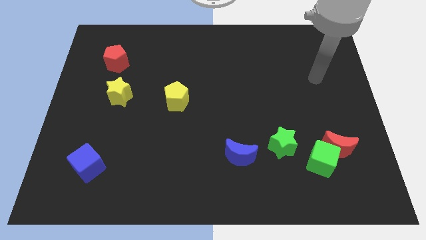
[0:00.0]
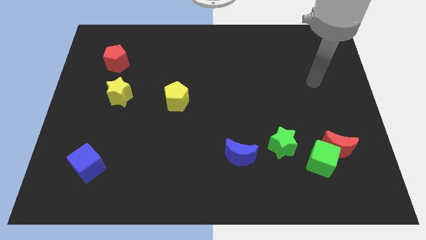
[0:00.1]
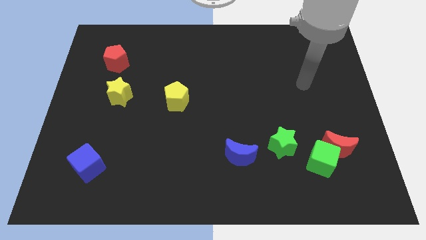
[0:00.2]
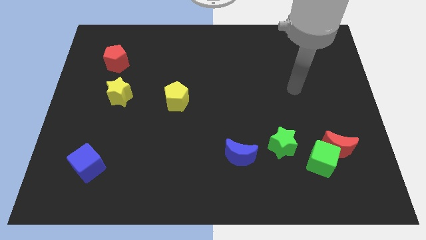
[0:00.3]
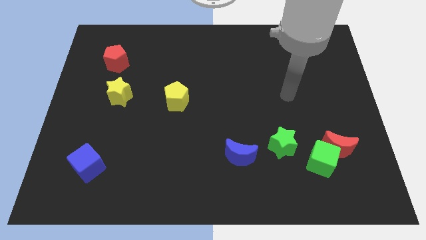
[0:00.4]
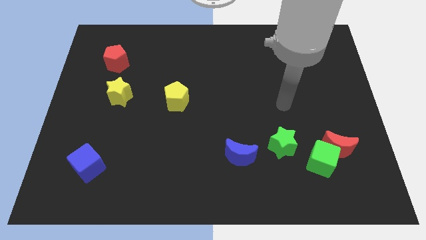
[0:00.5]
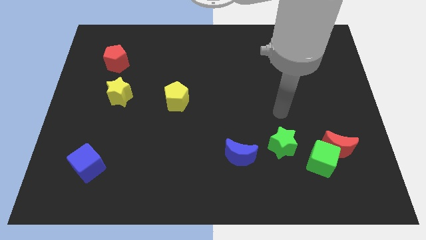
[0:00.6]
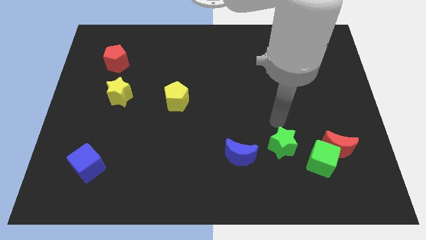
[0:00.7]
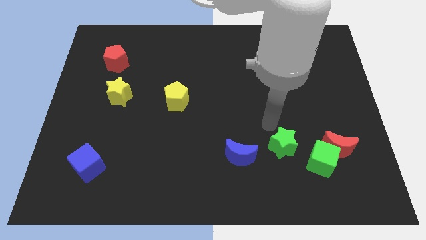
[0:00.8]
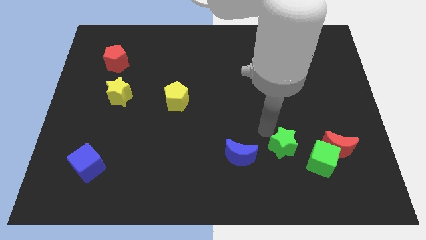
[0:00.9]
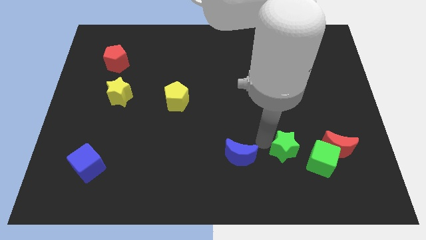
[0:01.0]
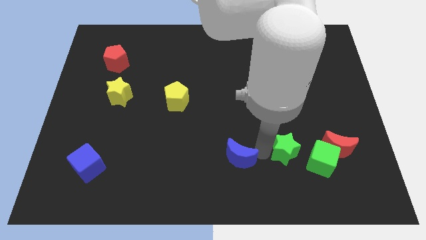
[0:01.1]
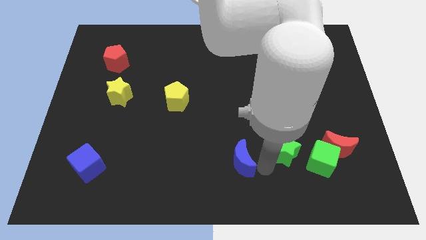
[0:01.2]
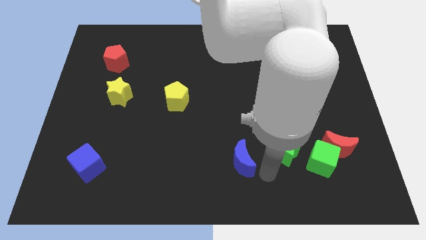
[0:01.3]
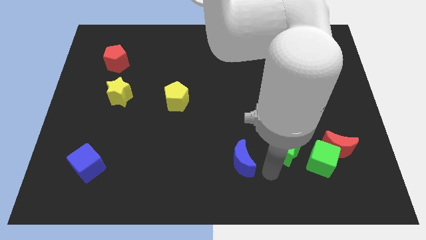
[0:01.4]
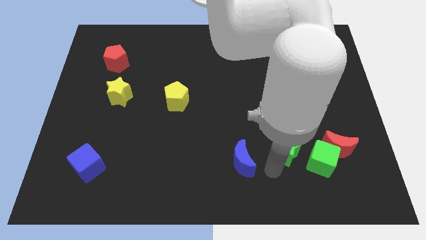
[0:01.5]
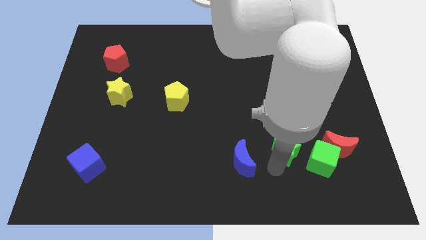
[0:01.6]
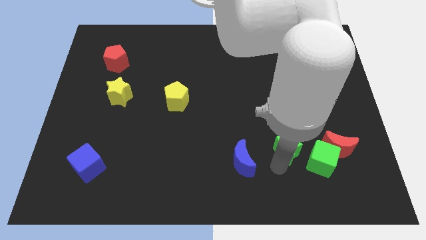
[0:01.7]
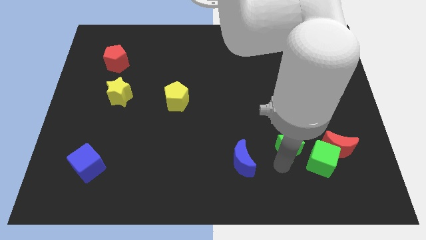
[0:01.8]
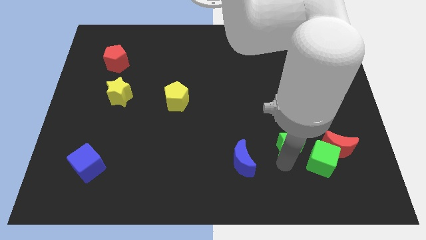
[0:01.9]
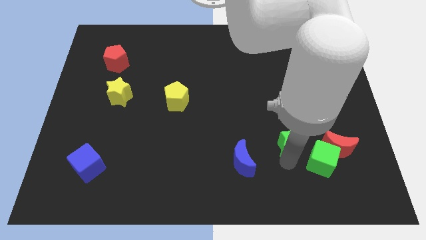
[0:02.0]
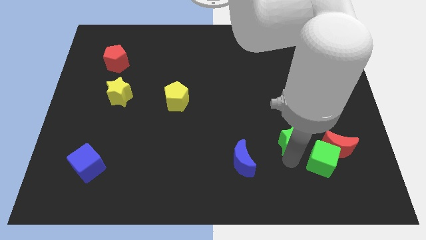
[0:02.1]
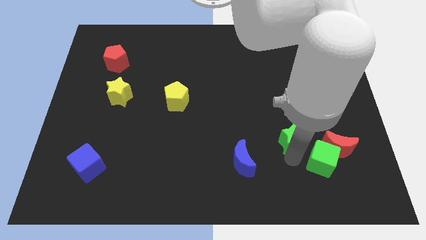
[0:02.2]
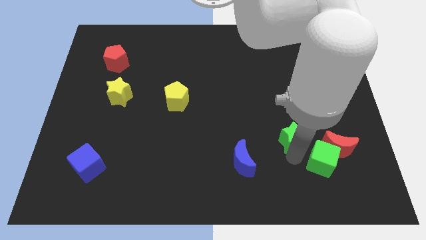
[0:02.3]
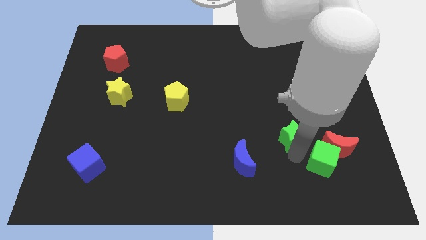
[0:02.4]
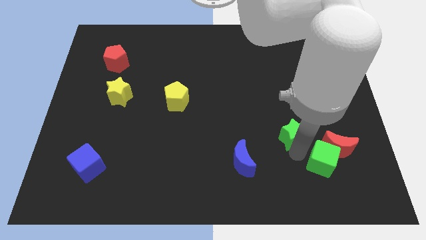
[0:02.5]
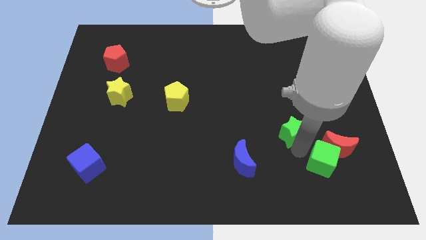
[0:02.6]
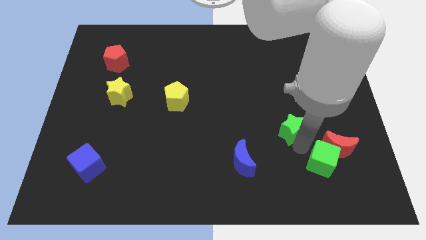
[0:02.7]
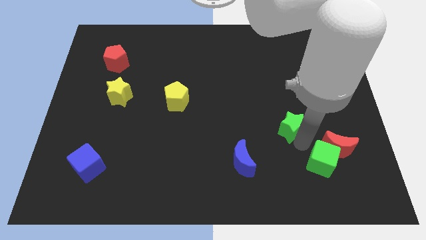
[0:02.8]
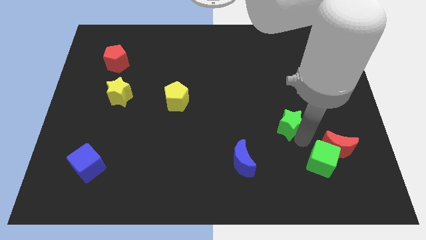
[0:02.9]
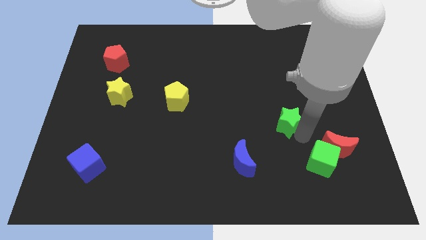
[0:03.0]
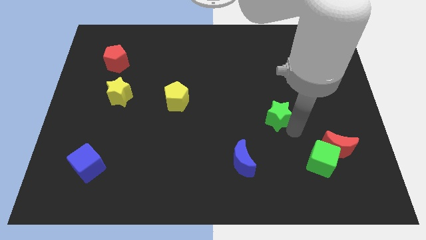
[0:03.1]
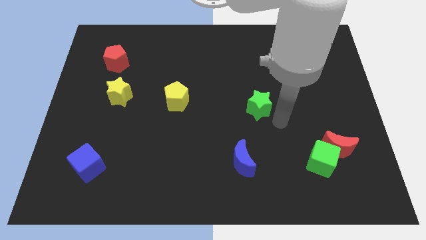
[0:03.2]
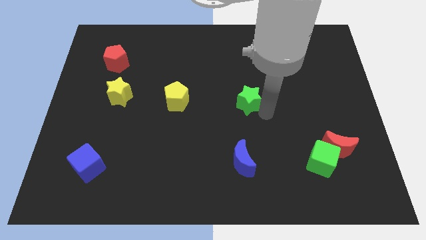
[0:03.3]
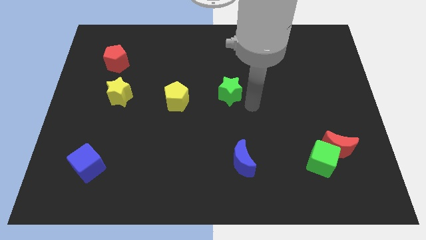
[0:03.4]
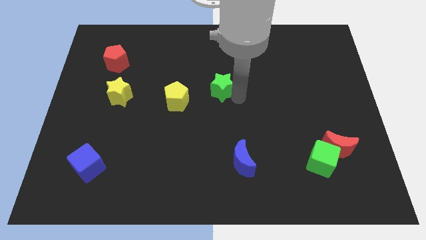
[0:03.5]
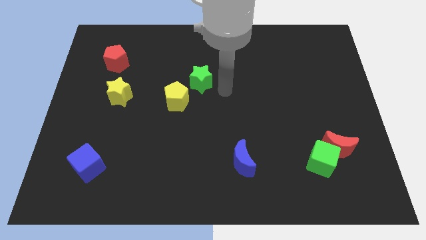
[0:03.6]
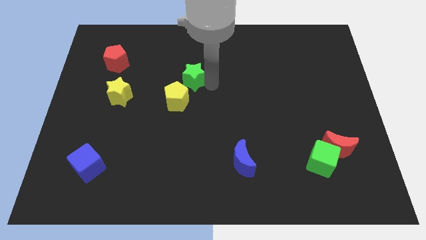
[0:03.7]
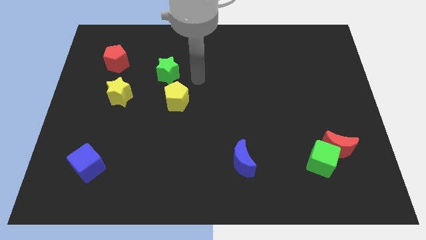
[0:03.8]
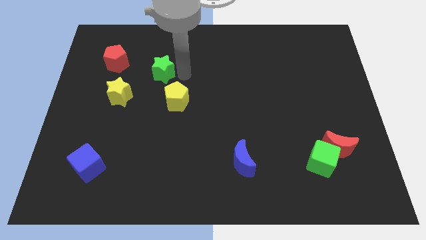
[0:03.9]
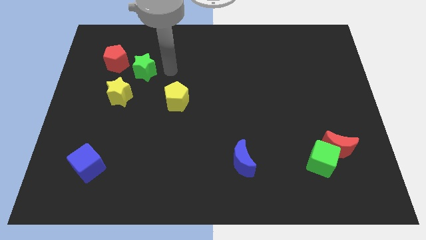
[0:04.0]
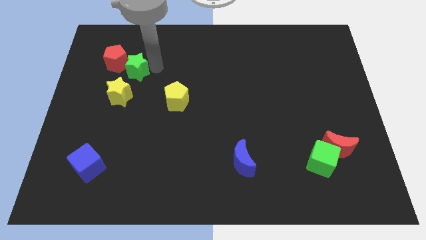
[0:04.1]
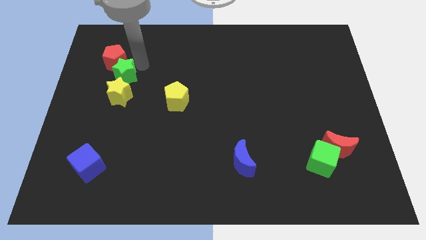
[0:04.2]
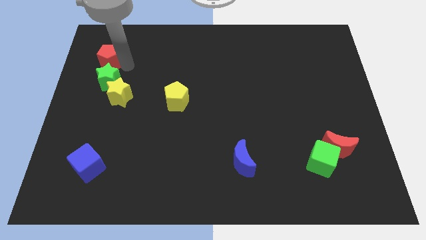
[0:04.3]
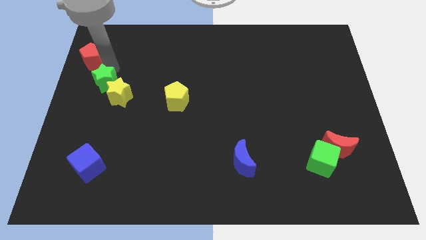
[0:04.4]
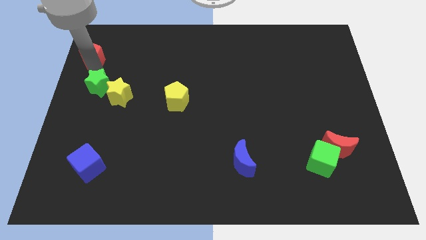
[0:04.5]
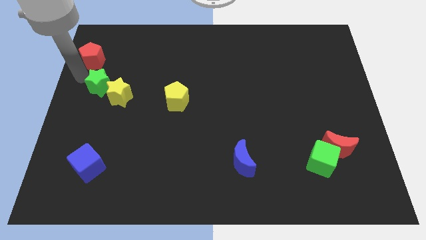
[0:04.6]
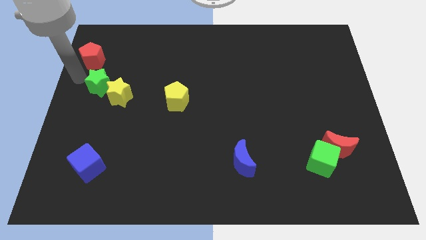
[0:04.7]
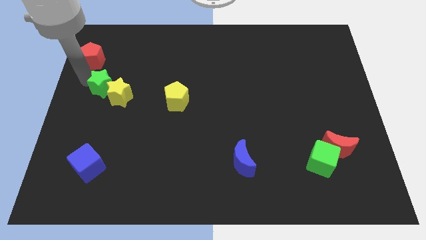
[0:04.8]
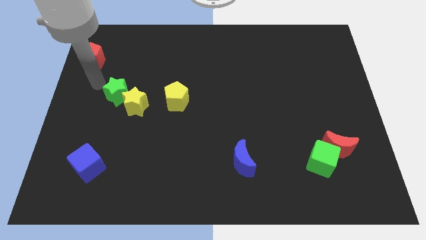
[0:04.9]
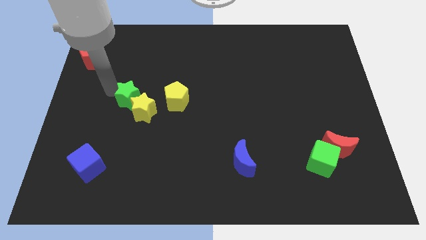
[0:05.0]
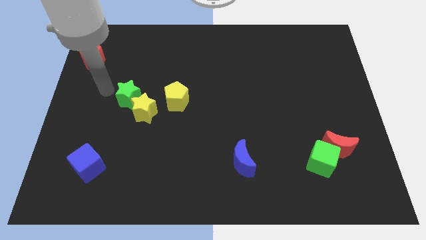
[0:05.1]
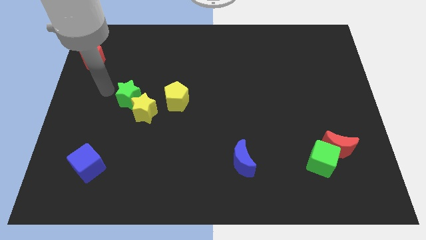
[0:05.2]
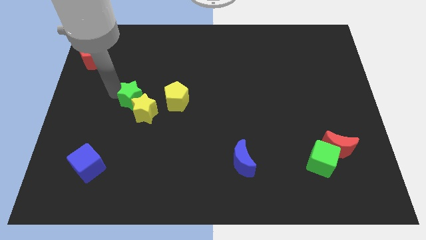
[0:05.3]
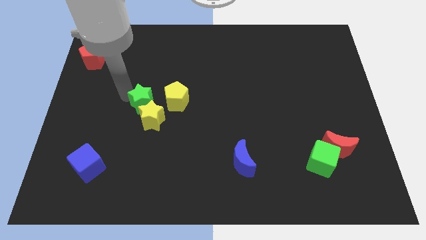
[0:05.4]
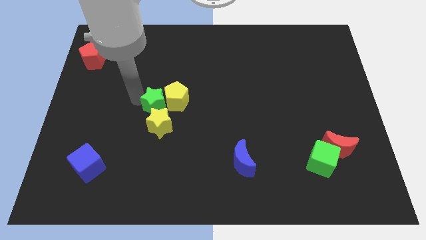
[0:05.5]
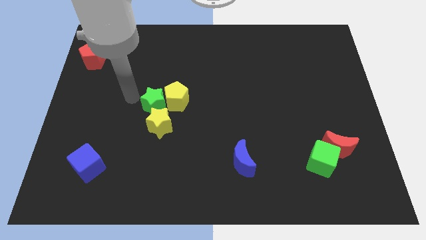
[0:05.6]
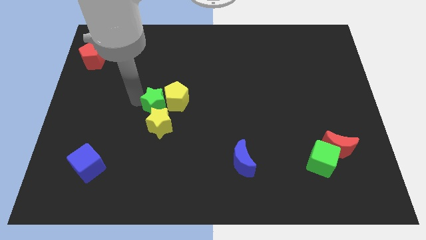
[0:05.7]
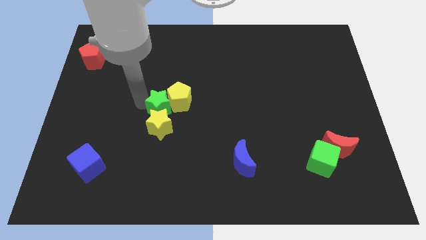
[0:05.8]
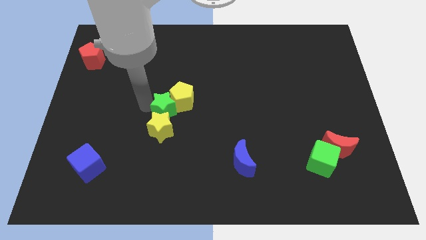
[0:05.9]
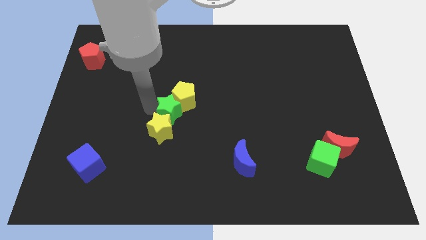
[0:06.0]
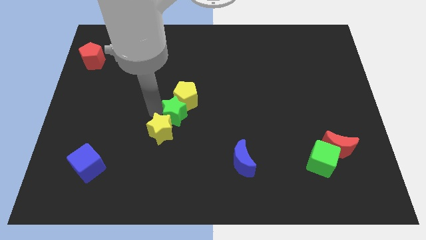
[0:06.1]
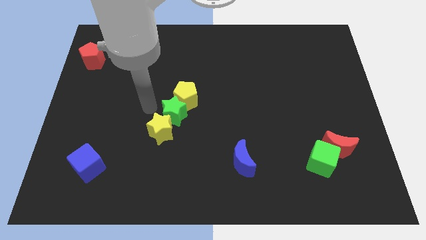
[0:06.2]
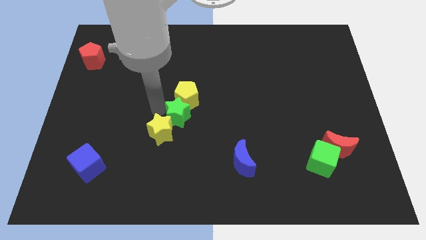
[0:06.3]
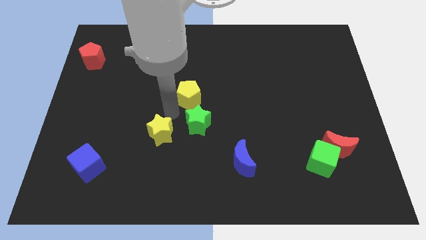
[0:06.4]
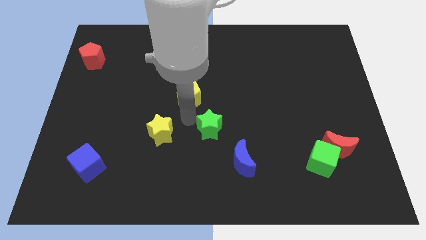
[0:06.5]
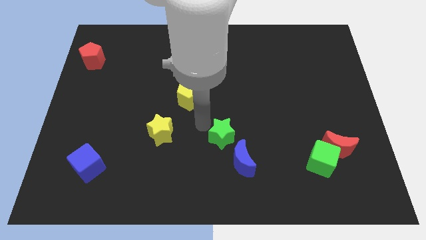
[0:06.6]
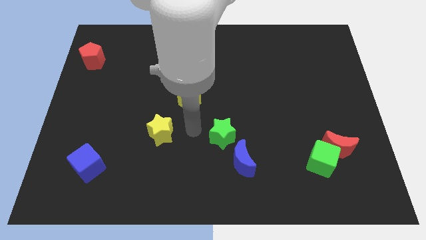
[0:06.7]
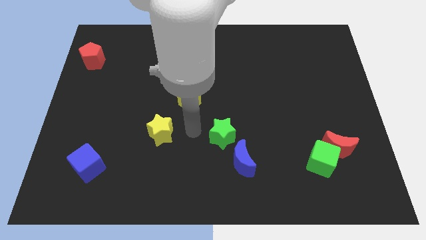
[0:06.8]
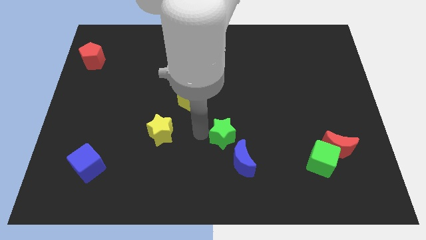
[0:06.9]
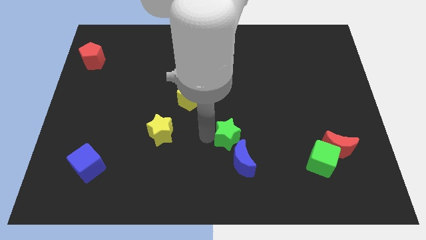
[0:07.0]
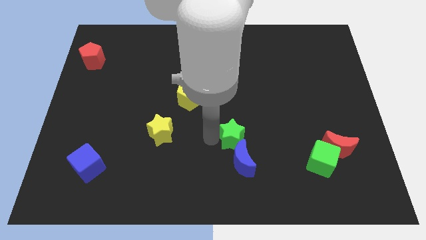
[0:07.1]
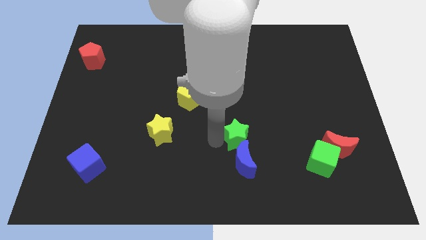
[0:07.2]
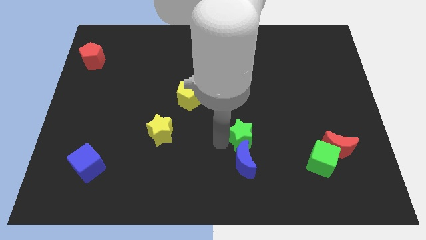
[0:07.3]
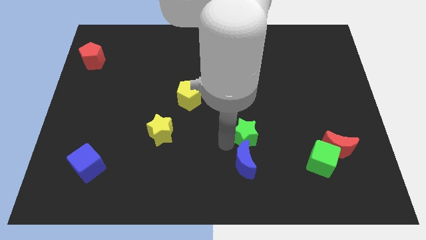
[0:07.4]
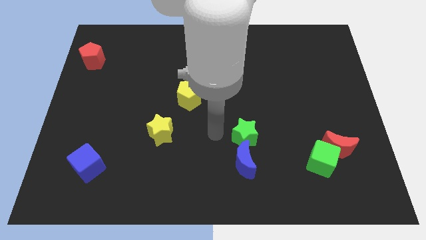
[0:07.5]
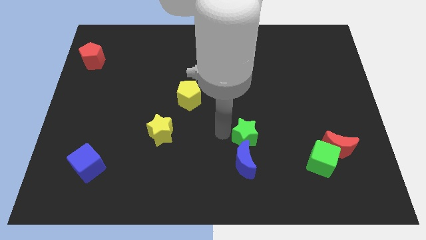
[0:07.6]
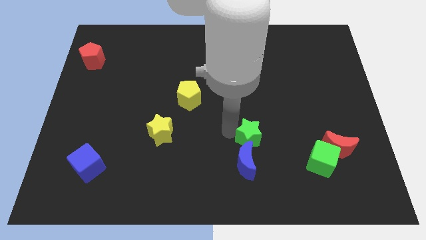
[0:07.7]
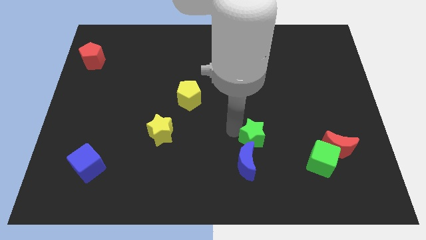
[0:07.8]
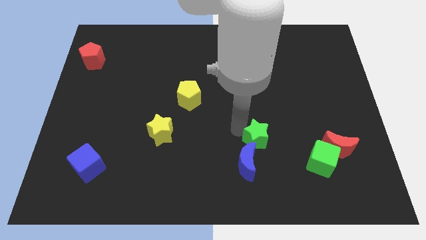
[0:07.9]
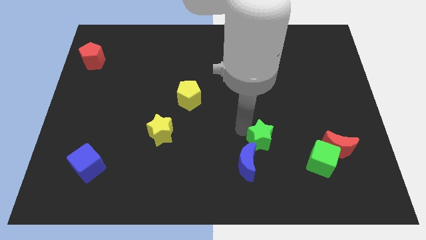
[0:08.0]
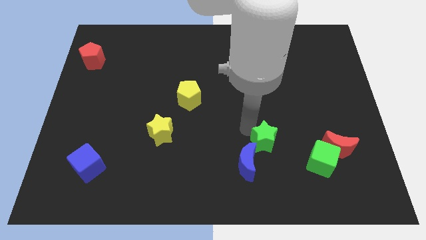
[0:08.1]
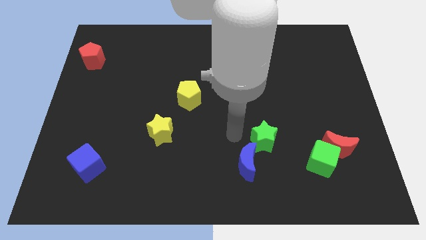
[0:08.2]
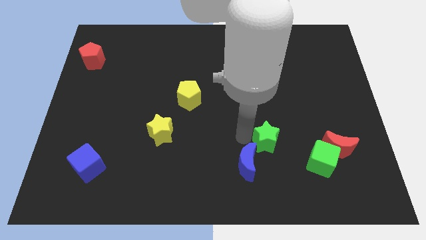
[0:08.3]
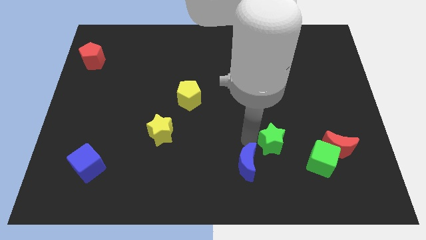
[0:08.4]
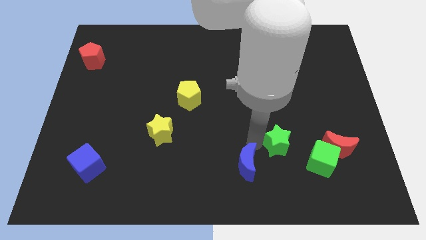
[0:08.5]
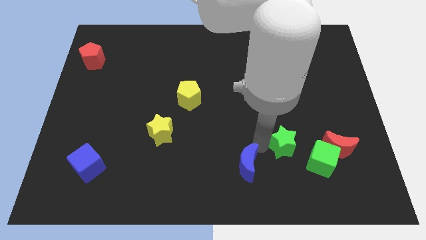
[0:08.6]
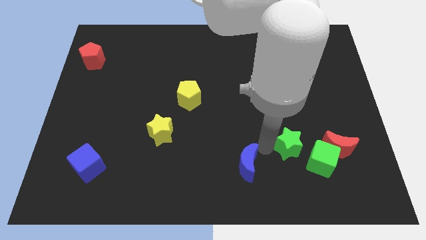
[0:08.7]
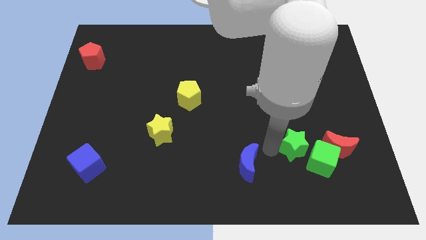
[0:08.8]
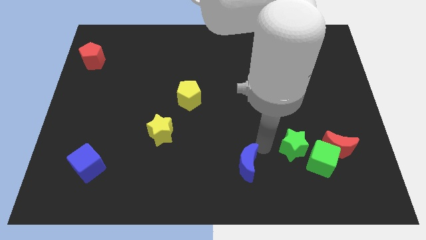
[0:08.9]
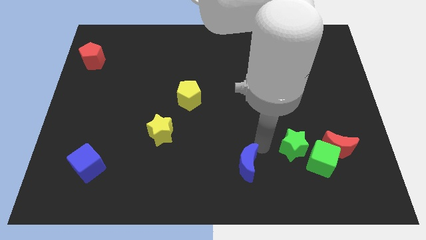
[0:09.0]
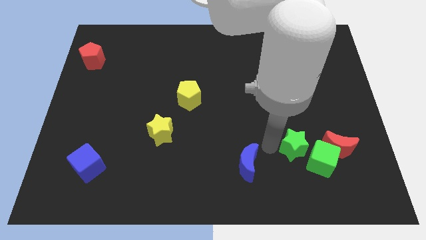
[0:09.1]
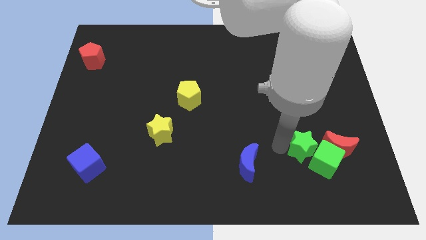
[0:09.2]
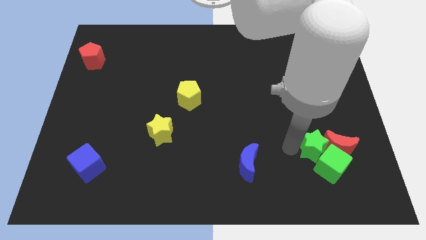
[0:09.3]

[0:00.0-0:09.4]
push the green star next to the red moon
